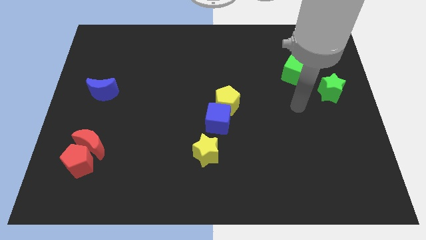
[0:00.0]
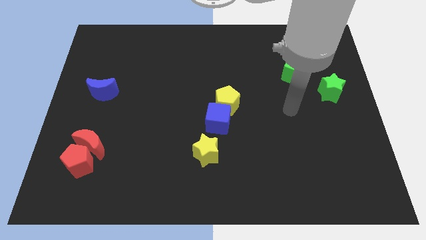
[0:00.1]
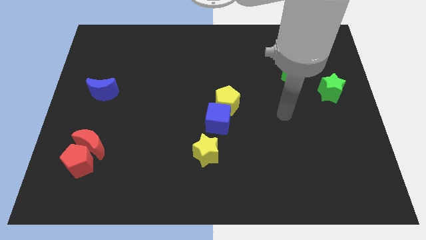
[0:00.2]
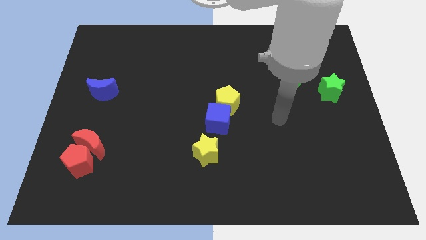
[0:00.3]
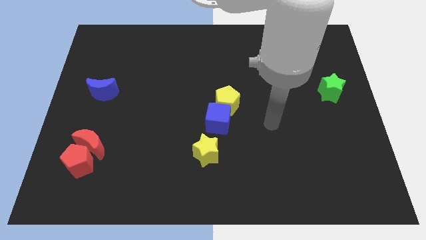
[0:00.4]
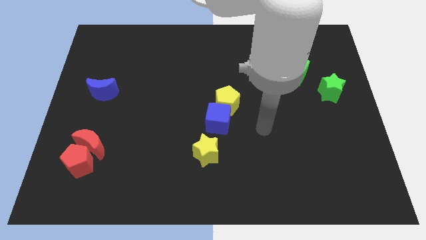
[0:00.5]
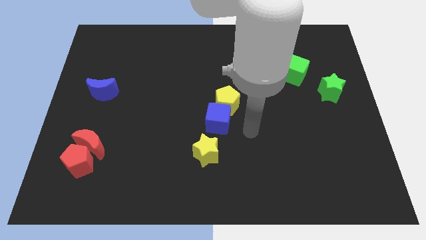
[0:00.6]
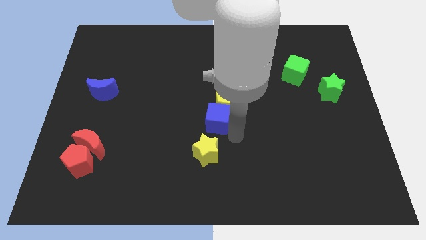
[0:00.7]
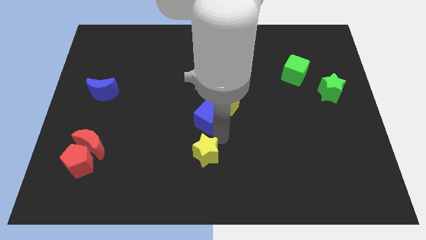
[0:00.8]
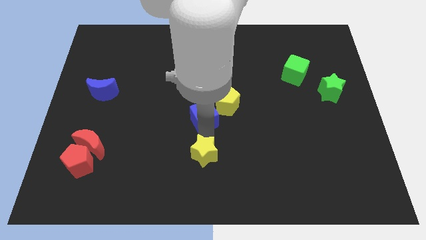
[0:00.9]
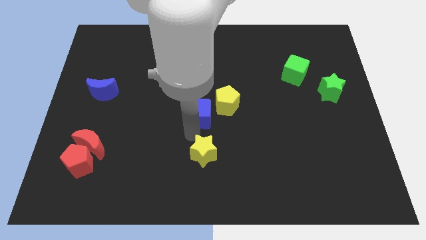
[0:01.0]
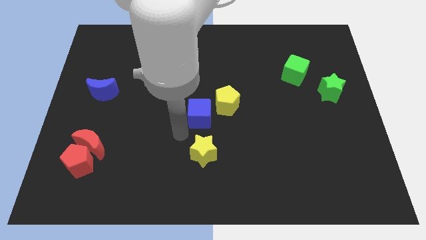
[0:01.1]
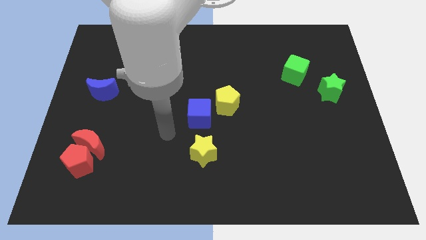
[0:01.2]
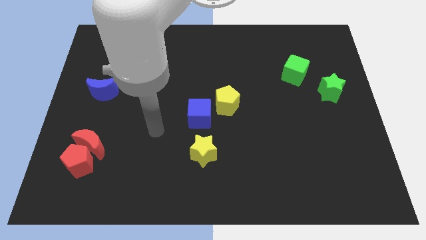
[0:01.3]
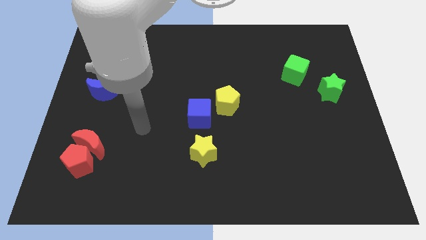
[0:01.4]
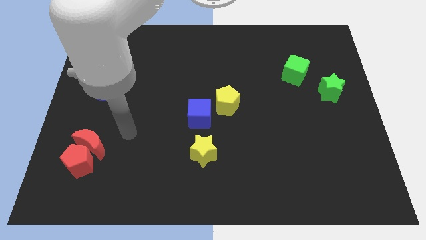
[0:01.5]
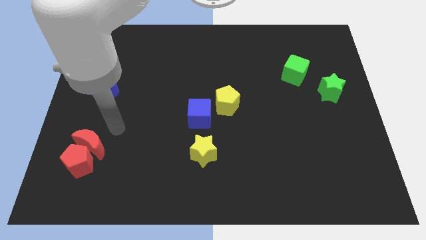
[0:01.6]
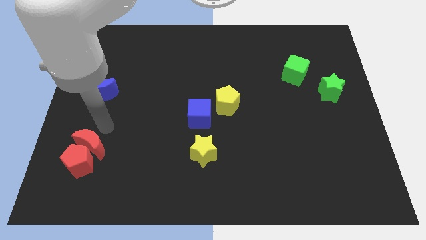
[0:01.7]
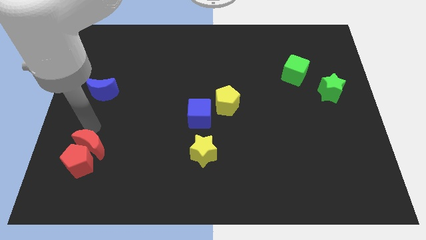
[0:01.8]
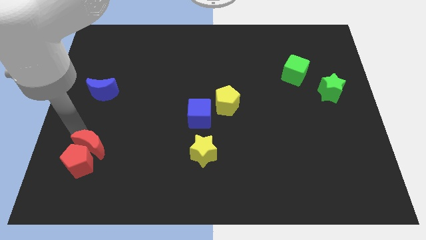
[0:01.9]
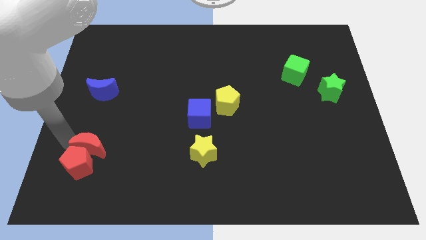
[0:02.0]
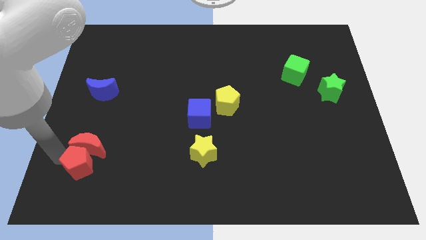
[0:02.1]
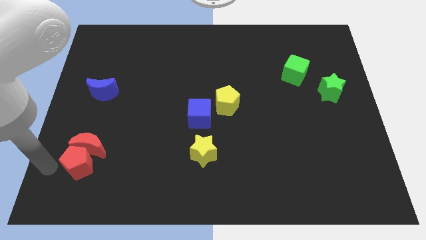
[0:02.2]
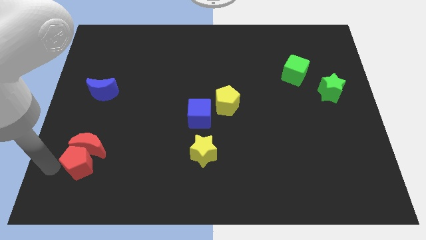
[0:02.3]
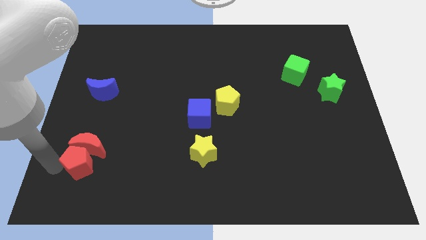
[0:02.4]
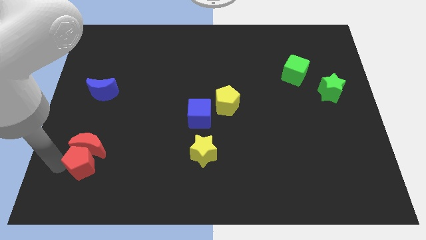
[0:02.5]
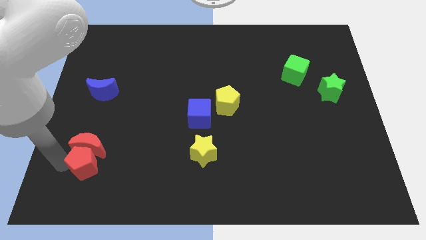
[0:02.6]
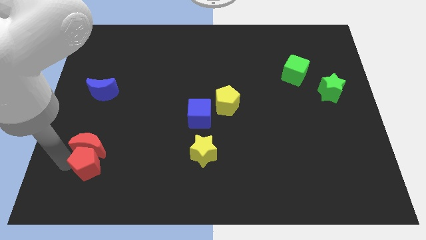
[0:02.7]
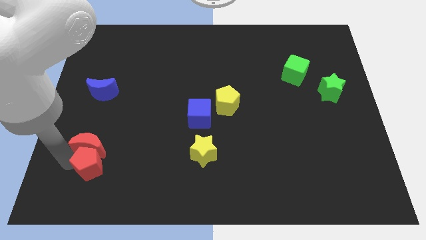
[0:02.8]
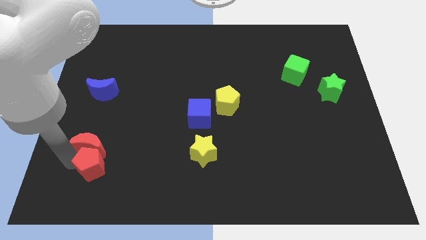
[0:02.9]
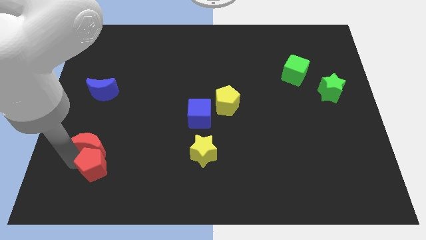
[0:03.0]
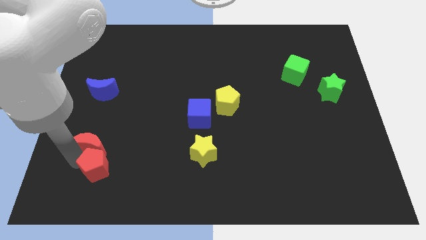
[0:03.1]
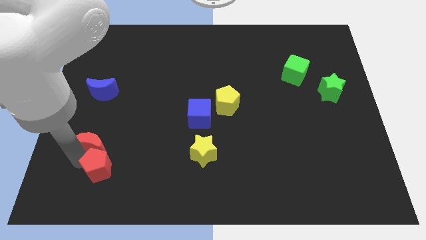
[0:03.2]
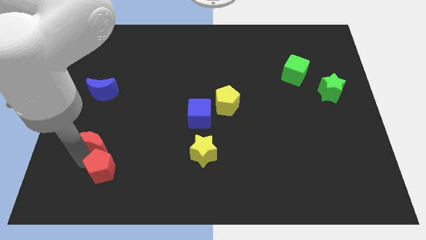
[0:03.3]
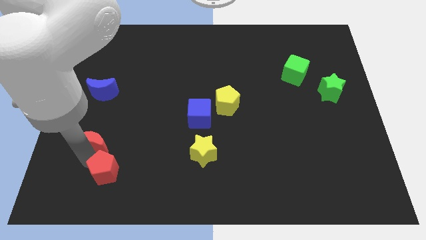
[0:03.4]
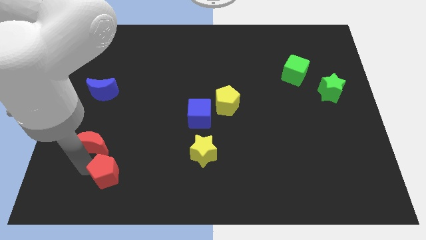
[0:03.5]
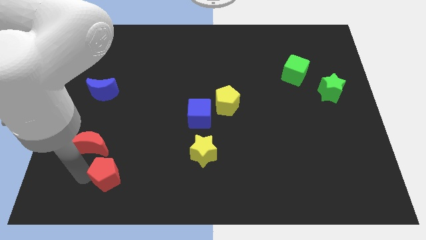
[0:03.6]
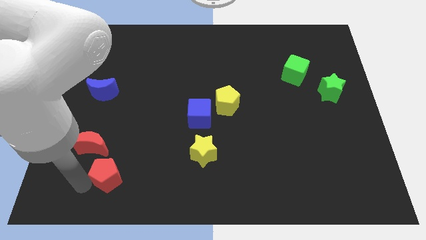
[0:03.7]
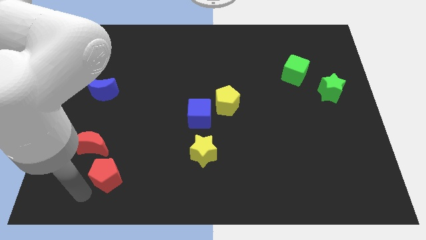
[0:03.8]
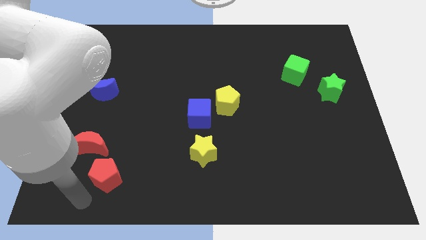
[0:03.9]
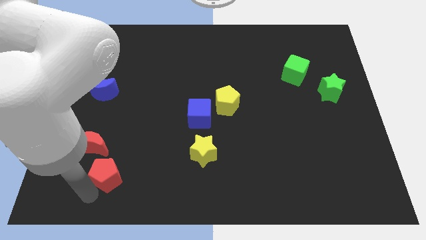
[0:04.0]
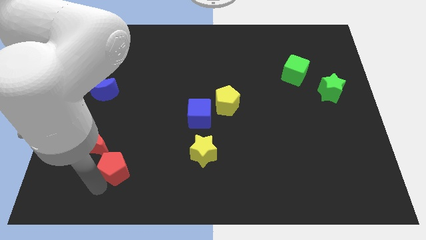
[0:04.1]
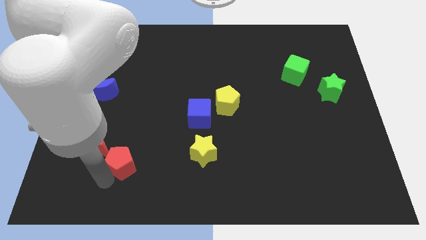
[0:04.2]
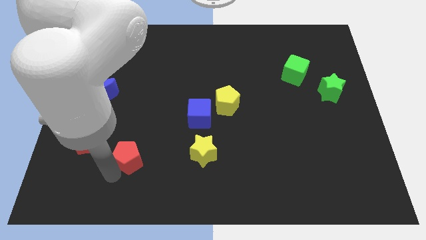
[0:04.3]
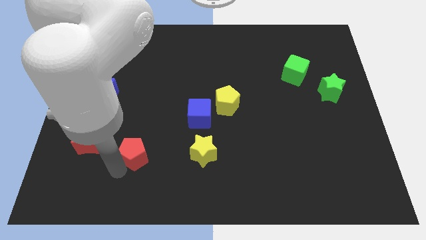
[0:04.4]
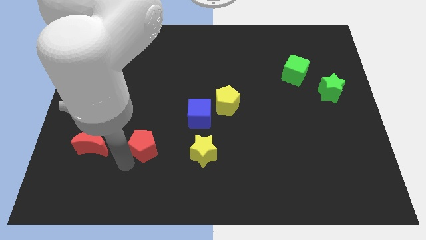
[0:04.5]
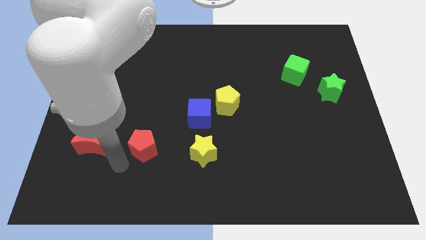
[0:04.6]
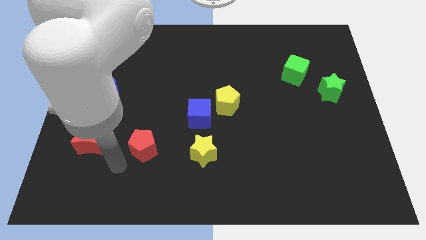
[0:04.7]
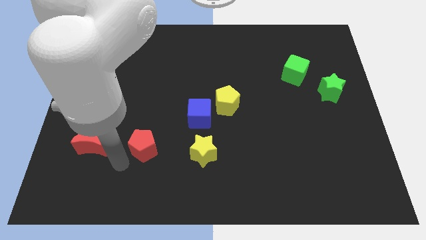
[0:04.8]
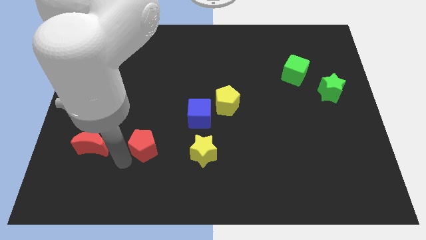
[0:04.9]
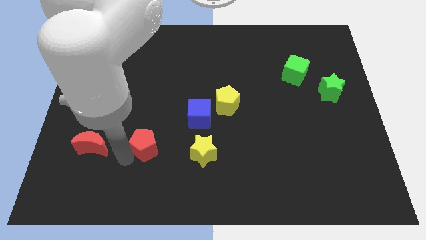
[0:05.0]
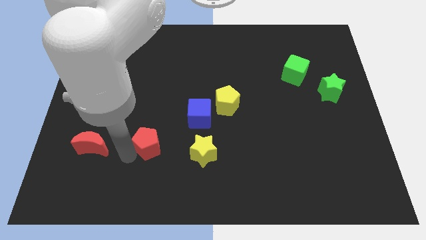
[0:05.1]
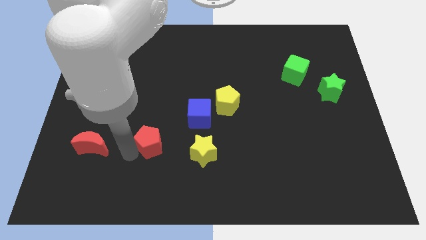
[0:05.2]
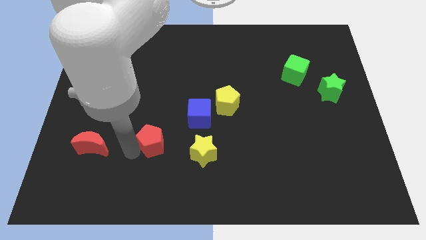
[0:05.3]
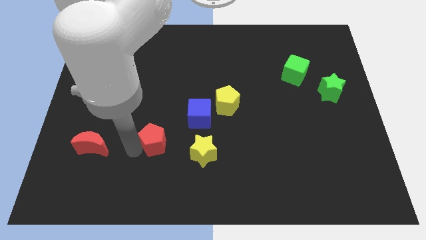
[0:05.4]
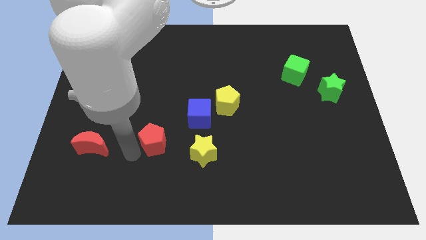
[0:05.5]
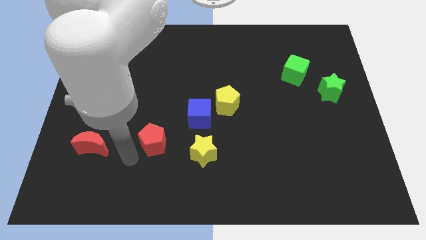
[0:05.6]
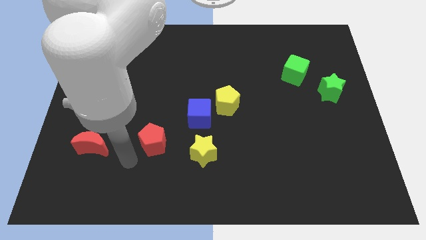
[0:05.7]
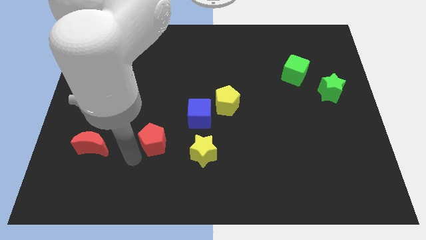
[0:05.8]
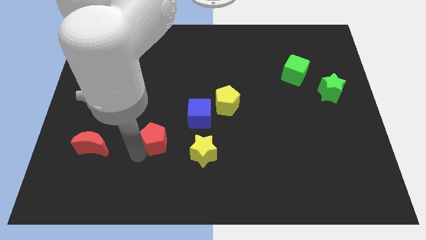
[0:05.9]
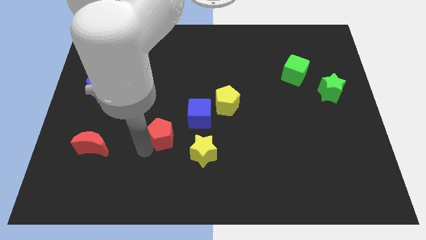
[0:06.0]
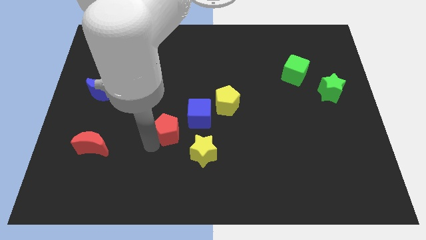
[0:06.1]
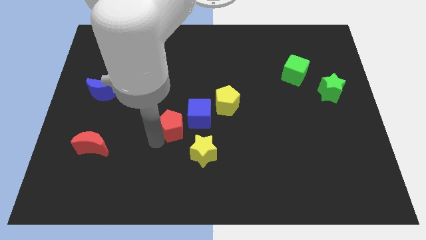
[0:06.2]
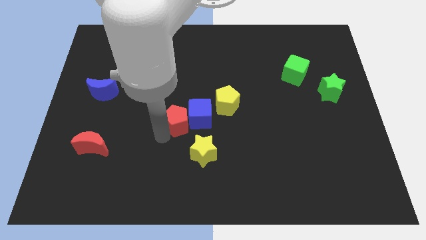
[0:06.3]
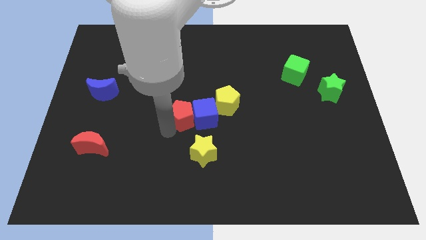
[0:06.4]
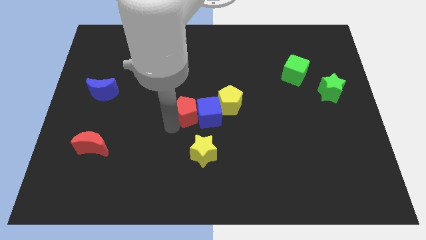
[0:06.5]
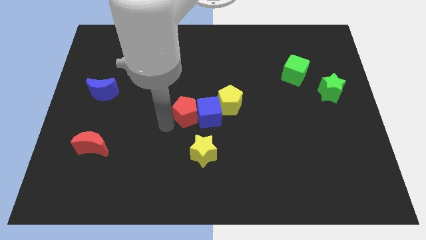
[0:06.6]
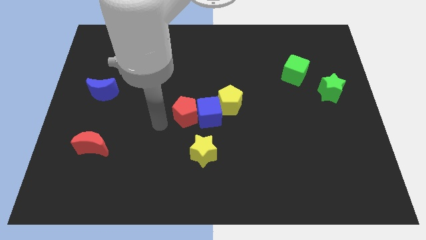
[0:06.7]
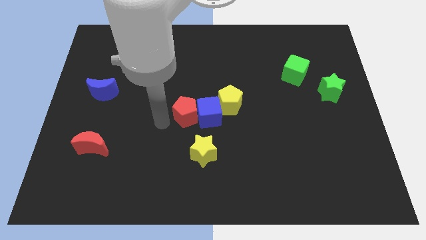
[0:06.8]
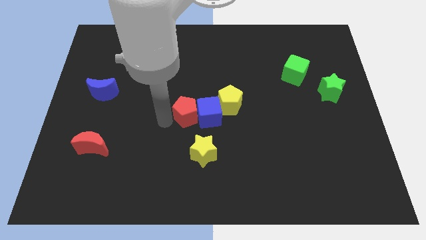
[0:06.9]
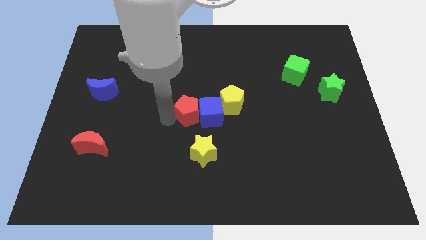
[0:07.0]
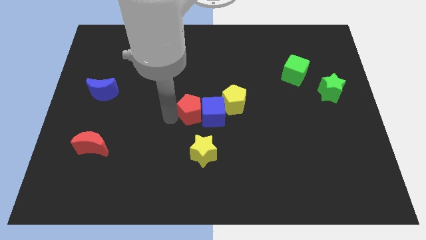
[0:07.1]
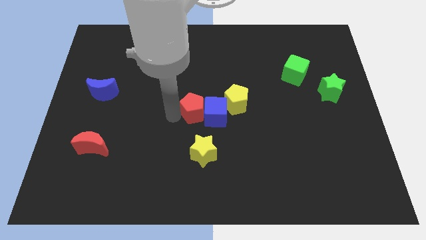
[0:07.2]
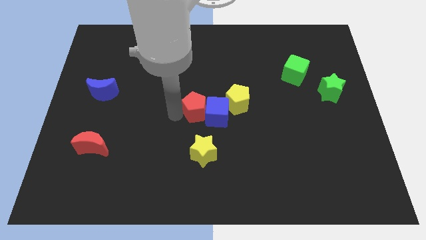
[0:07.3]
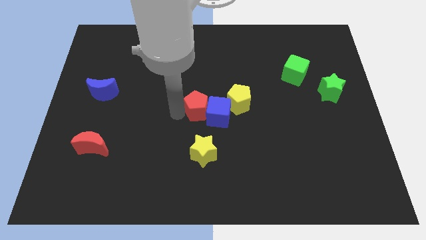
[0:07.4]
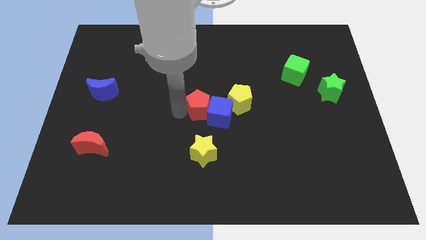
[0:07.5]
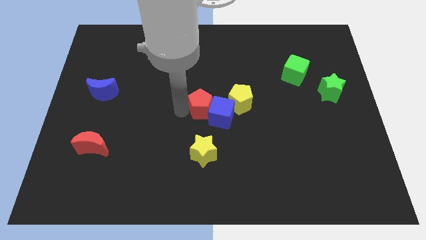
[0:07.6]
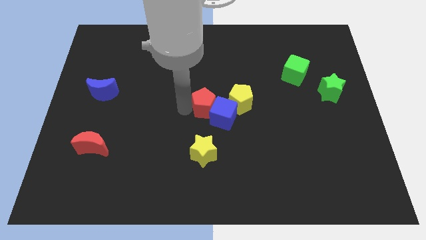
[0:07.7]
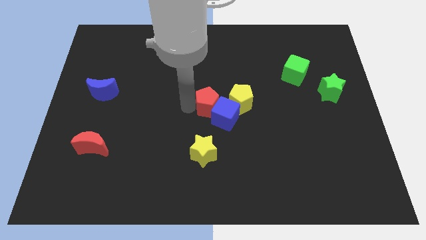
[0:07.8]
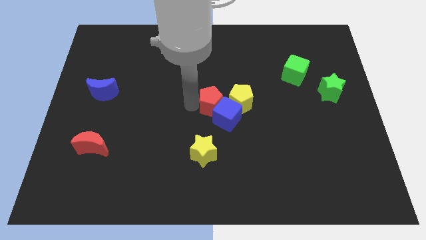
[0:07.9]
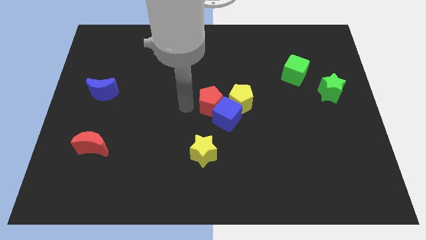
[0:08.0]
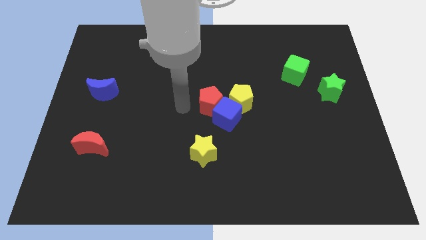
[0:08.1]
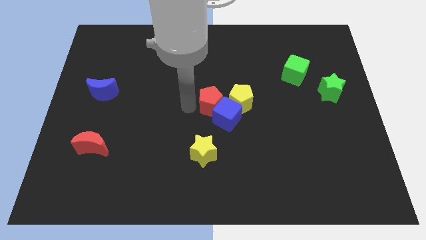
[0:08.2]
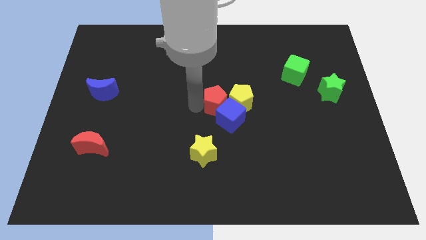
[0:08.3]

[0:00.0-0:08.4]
move the red pentagon to the yellow pentagon
